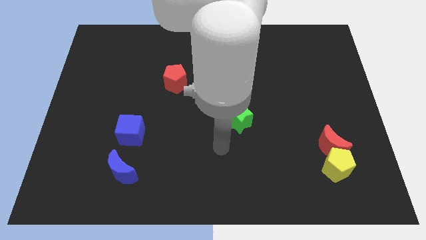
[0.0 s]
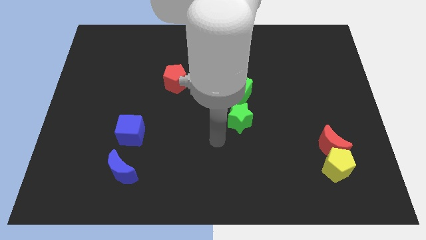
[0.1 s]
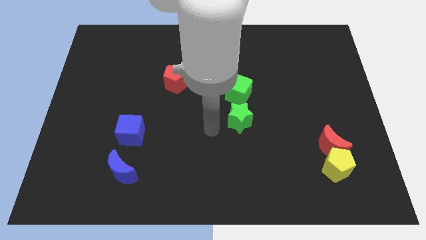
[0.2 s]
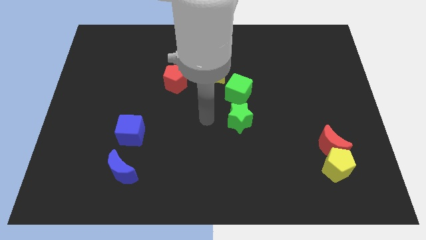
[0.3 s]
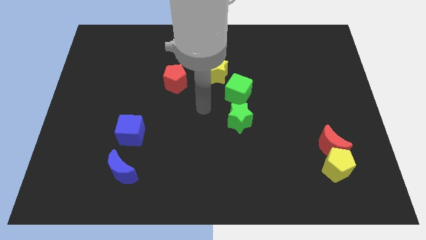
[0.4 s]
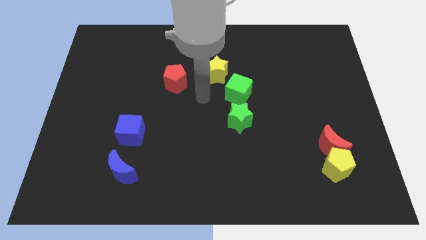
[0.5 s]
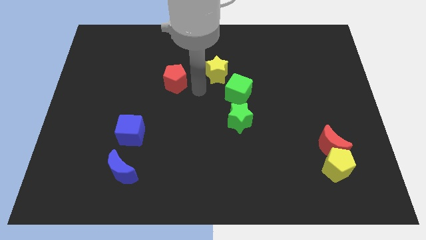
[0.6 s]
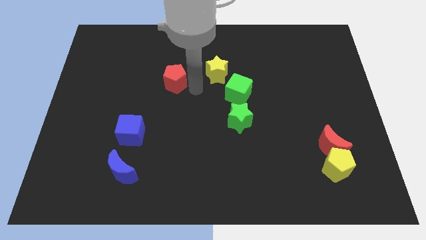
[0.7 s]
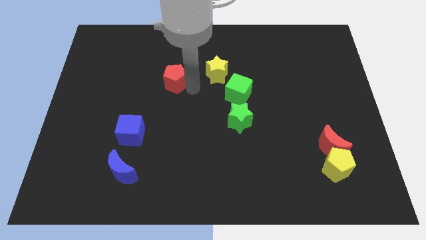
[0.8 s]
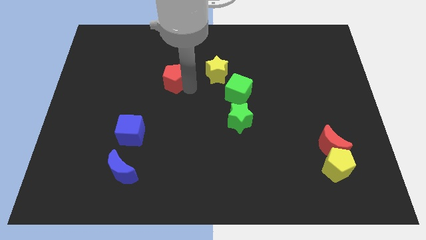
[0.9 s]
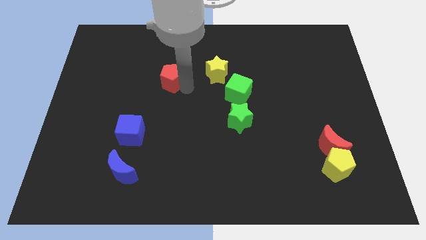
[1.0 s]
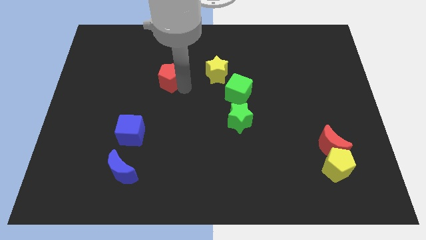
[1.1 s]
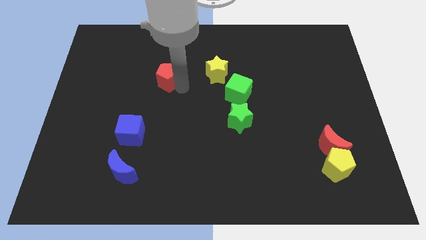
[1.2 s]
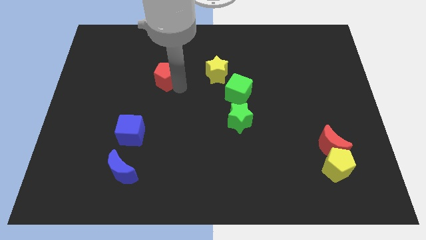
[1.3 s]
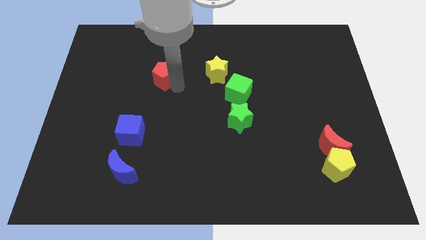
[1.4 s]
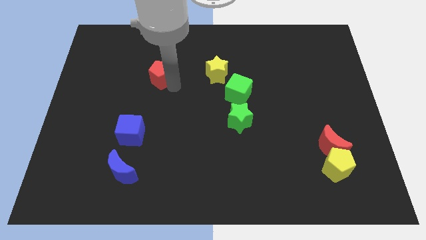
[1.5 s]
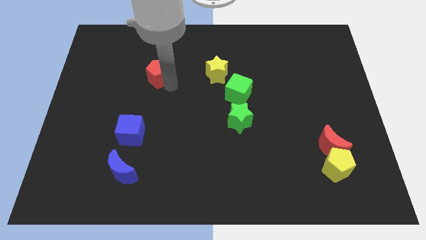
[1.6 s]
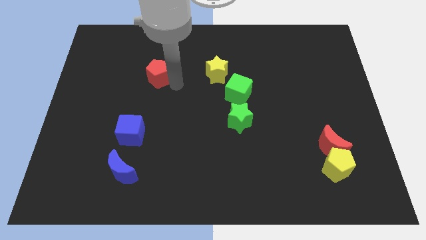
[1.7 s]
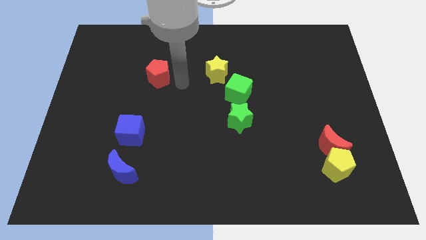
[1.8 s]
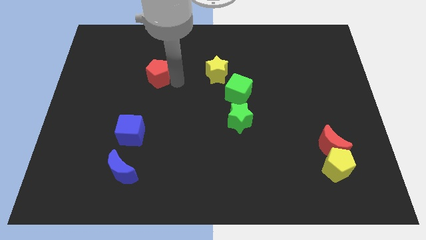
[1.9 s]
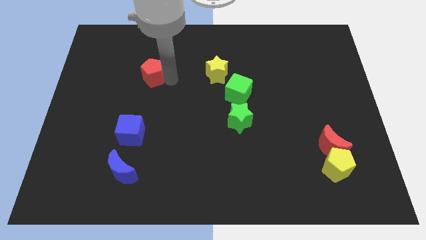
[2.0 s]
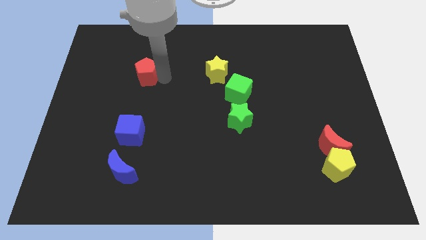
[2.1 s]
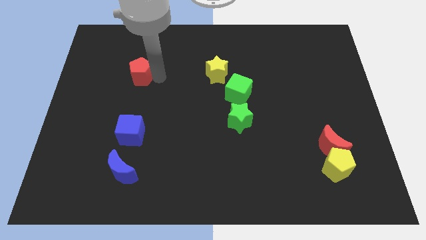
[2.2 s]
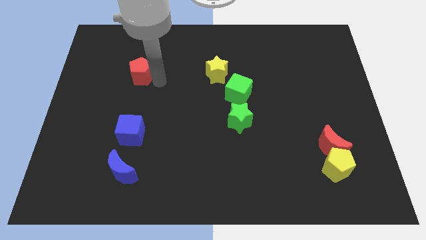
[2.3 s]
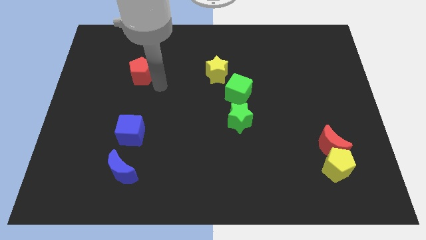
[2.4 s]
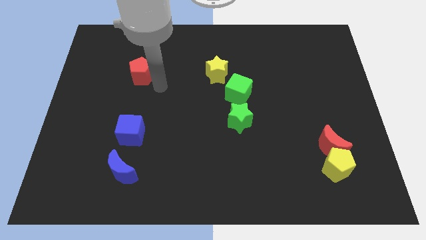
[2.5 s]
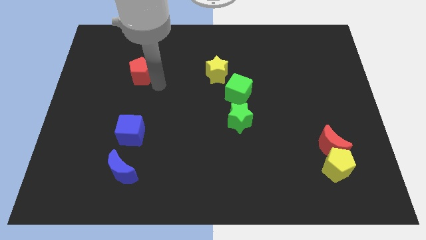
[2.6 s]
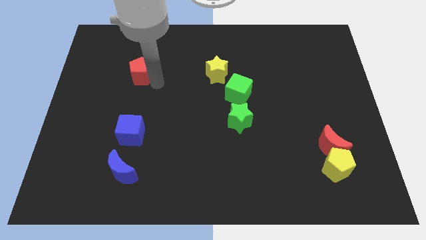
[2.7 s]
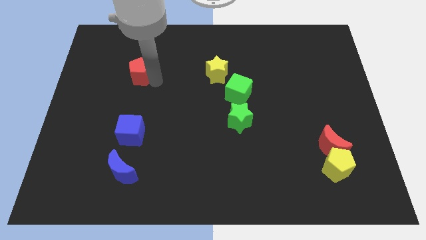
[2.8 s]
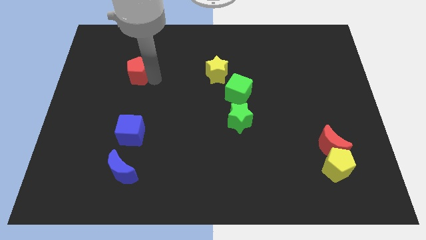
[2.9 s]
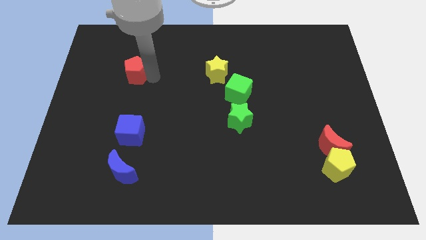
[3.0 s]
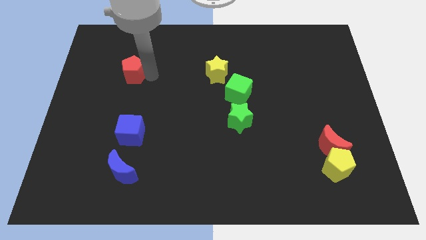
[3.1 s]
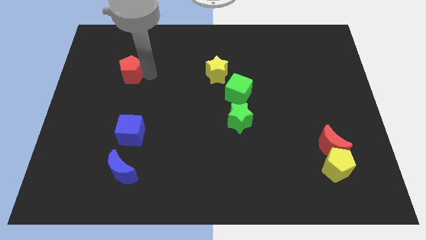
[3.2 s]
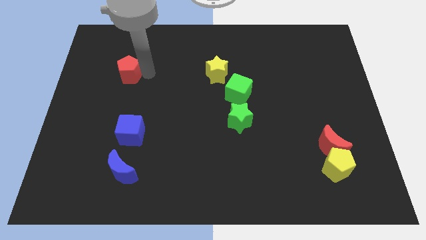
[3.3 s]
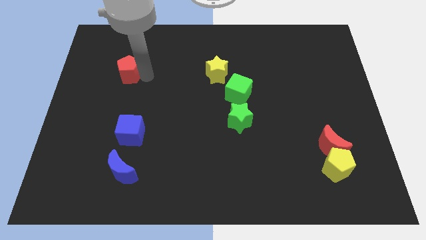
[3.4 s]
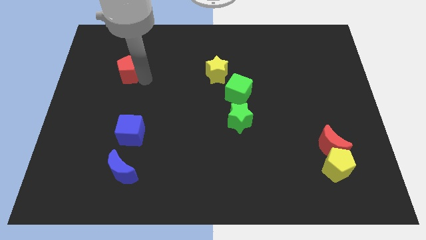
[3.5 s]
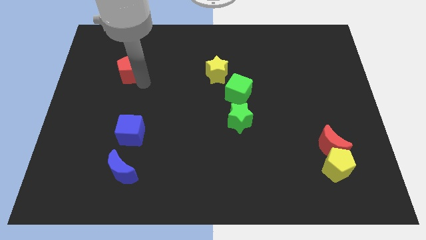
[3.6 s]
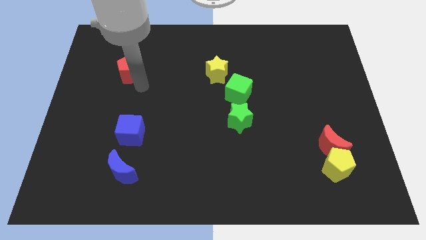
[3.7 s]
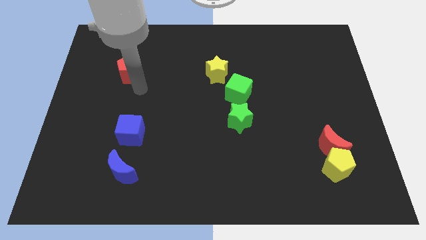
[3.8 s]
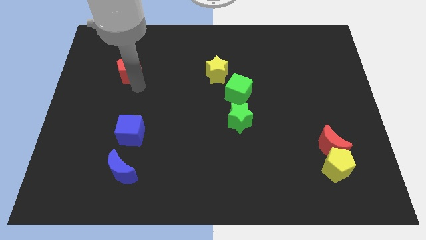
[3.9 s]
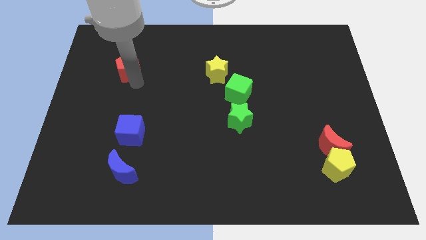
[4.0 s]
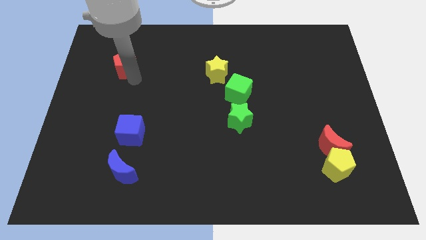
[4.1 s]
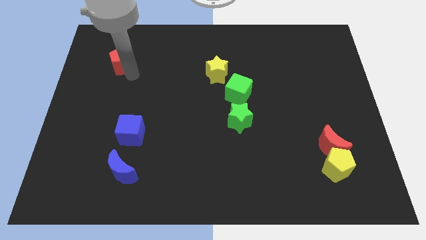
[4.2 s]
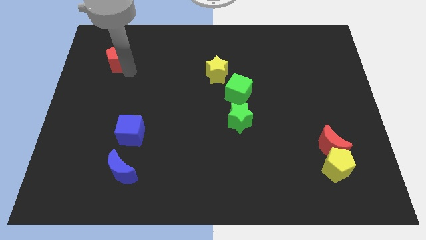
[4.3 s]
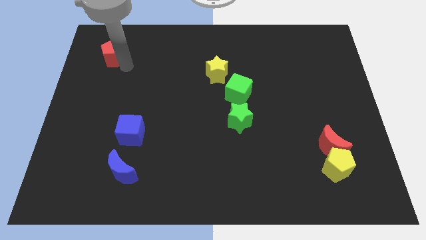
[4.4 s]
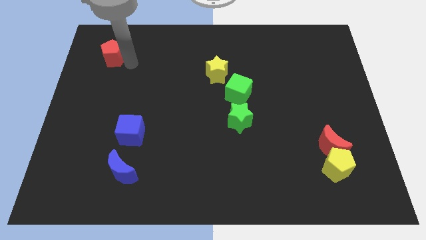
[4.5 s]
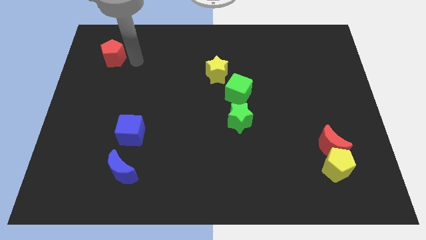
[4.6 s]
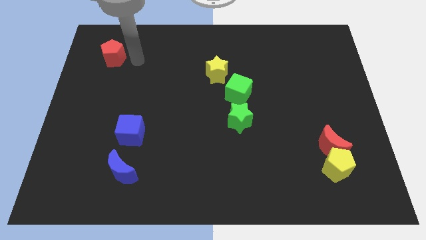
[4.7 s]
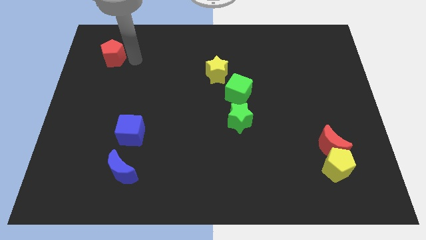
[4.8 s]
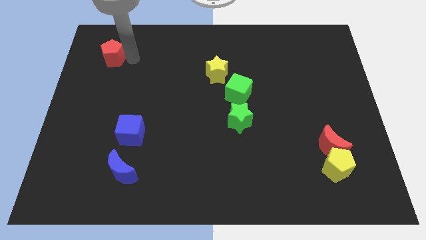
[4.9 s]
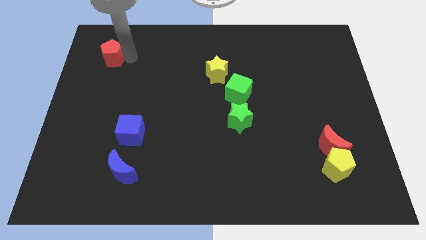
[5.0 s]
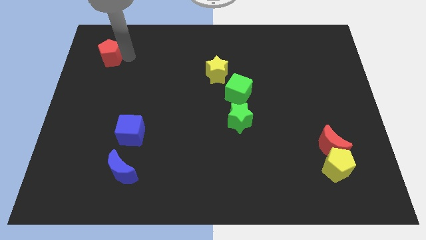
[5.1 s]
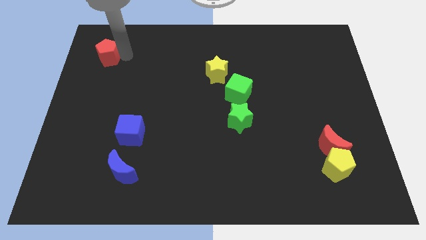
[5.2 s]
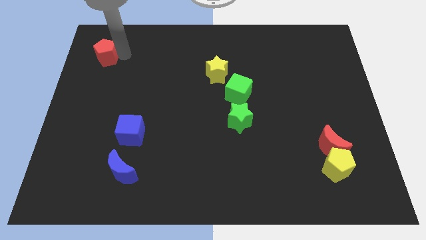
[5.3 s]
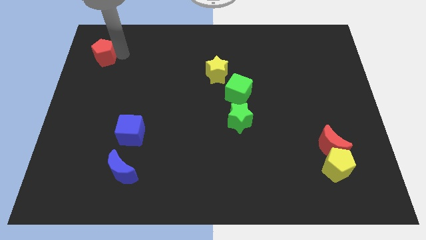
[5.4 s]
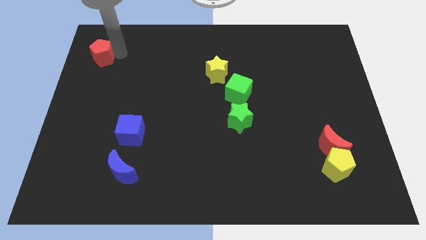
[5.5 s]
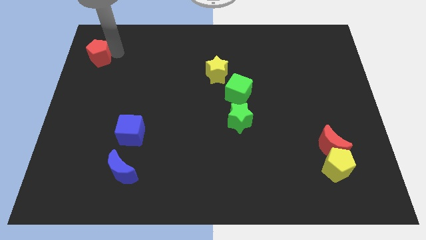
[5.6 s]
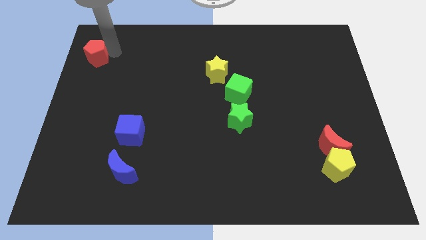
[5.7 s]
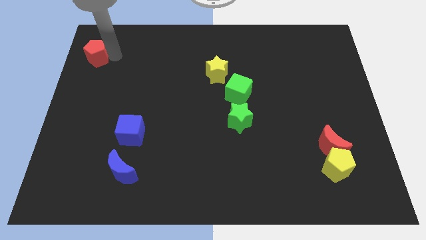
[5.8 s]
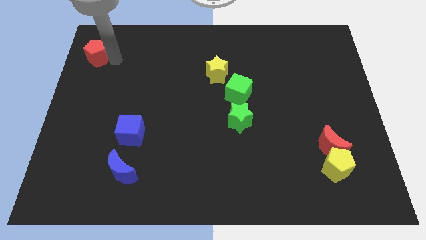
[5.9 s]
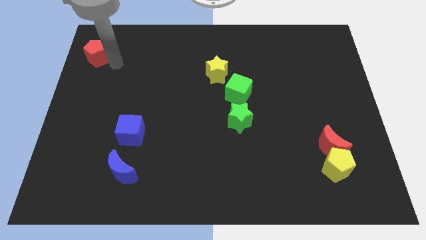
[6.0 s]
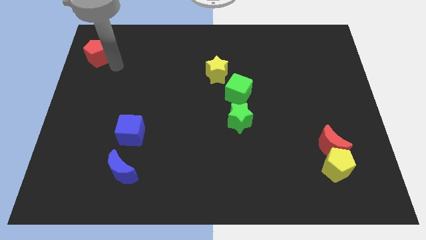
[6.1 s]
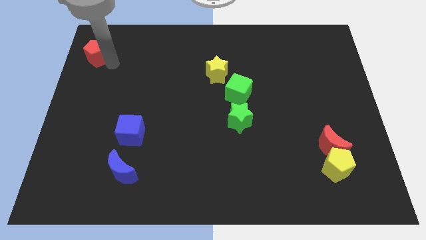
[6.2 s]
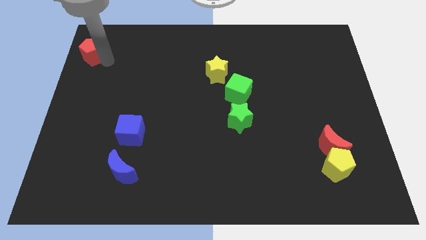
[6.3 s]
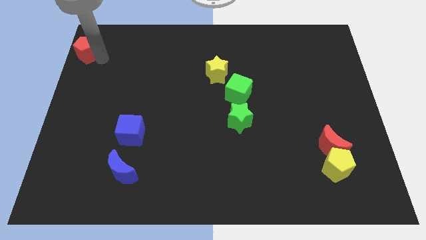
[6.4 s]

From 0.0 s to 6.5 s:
slide the red pentagon to the upper left corner

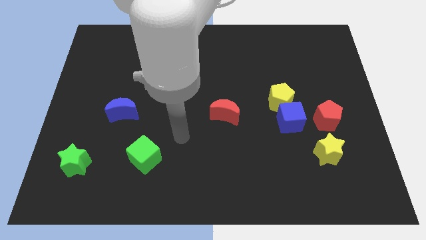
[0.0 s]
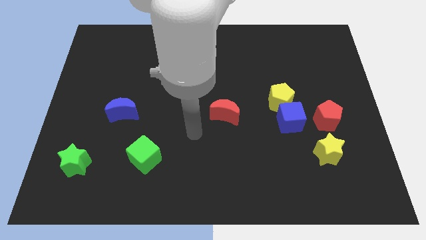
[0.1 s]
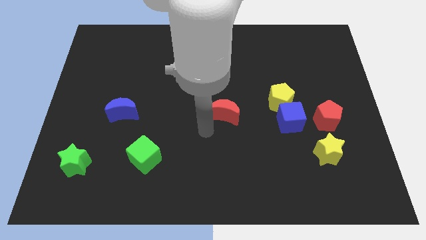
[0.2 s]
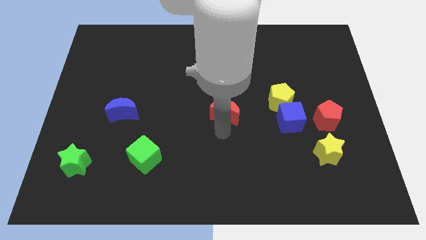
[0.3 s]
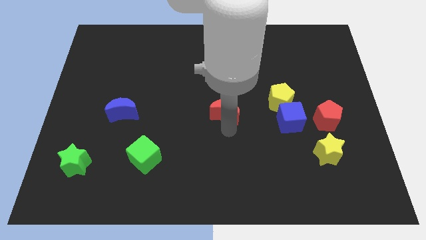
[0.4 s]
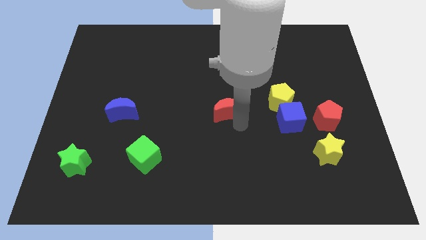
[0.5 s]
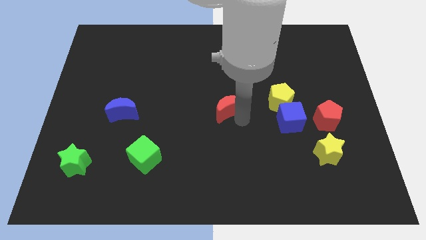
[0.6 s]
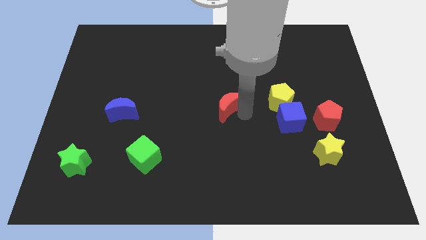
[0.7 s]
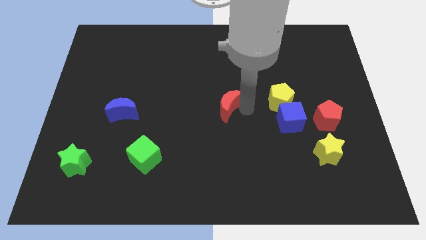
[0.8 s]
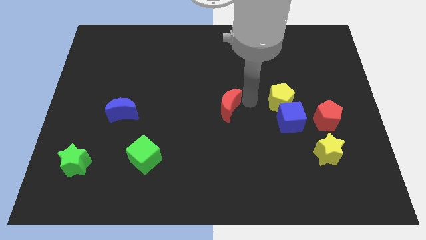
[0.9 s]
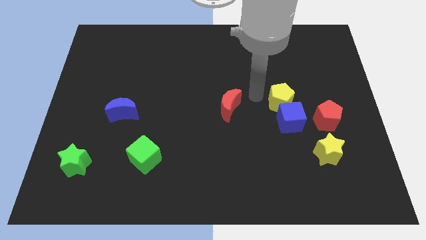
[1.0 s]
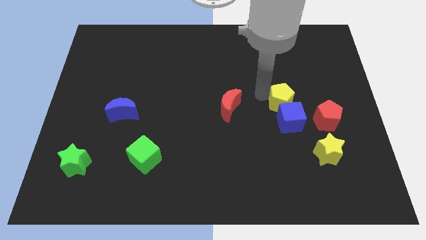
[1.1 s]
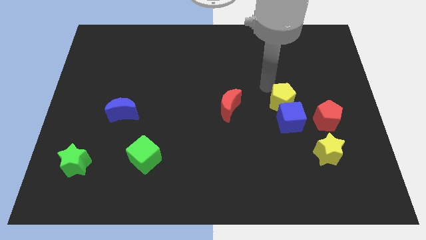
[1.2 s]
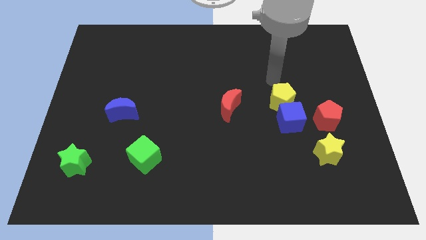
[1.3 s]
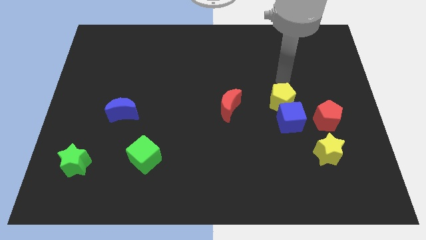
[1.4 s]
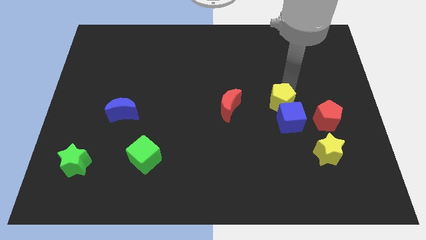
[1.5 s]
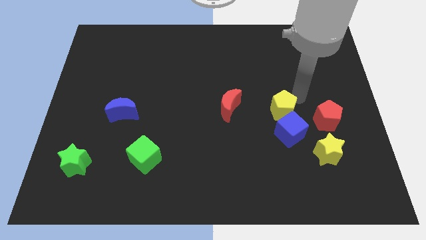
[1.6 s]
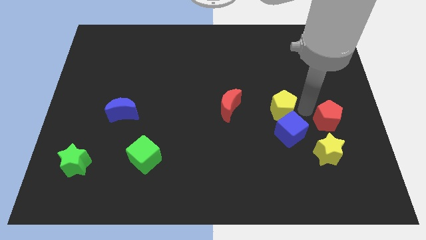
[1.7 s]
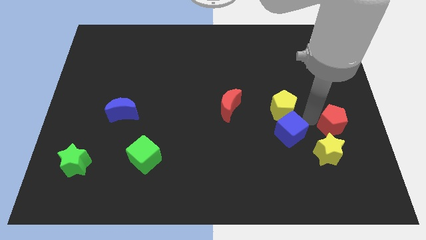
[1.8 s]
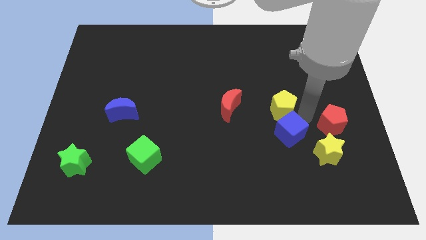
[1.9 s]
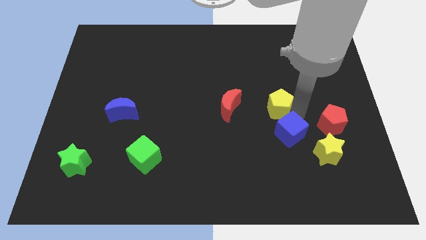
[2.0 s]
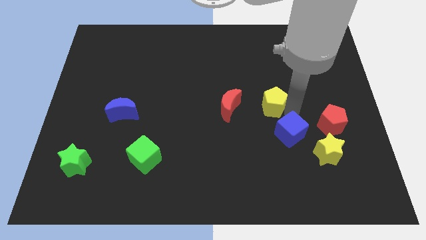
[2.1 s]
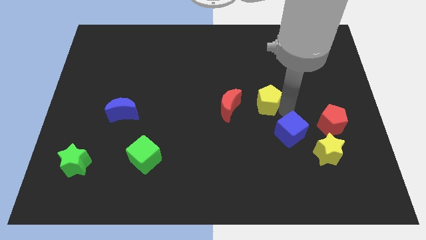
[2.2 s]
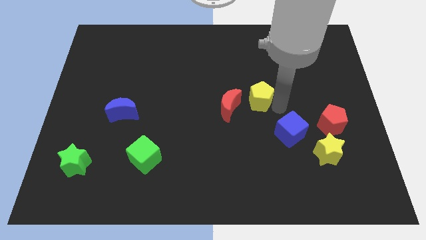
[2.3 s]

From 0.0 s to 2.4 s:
slide the yellow pentagon to the center
